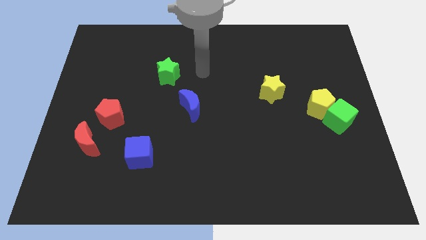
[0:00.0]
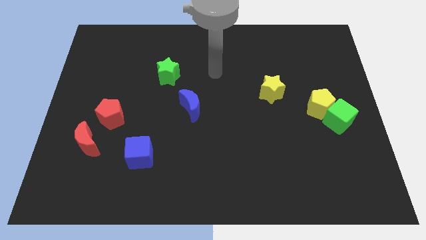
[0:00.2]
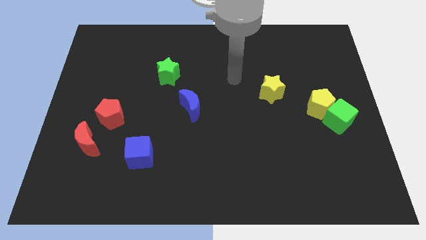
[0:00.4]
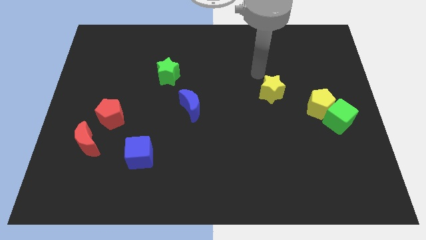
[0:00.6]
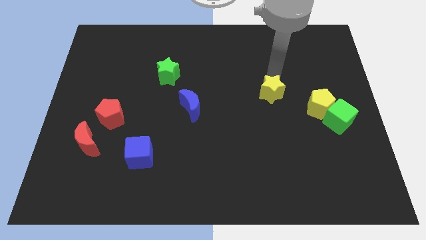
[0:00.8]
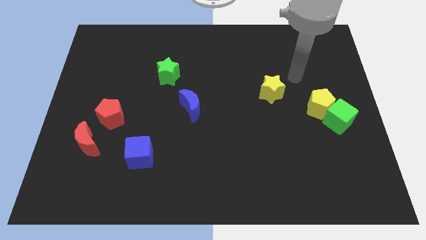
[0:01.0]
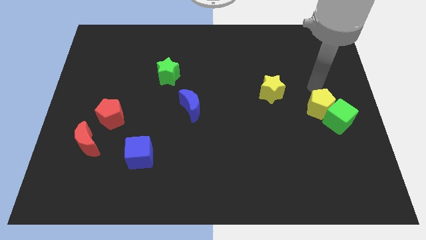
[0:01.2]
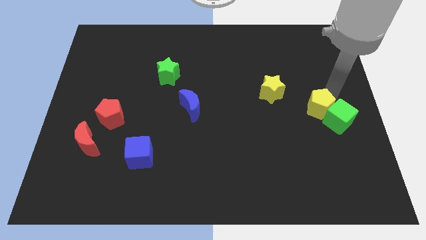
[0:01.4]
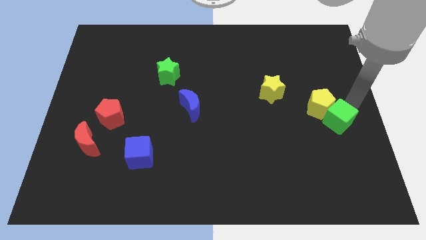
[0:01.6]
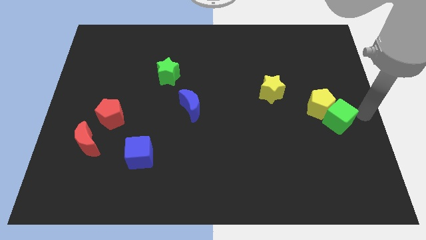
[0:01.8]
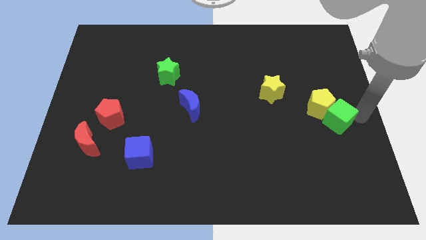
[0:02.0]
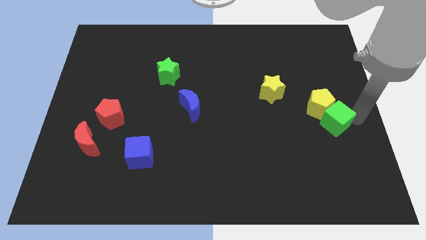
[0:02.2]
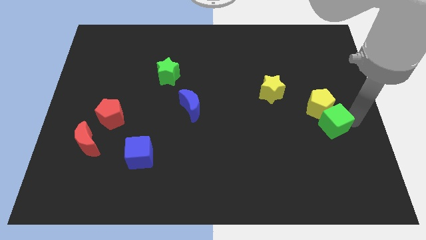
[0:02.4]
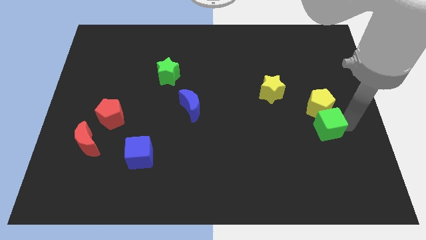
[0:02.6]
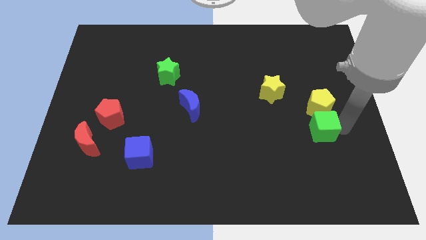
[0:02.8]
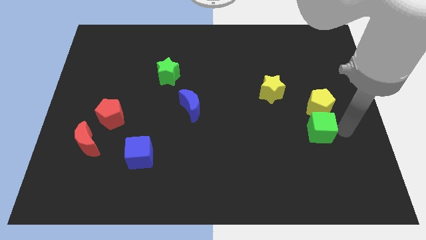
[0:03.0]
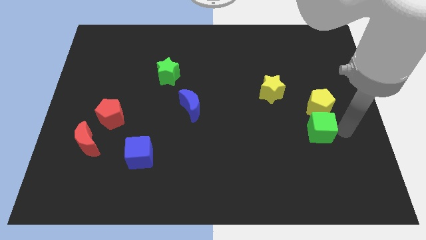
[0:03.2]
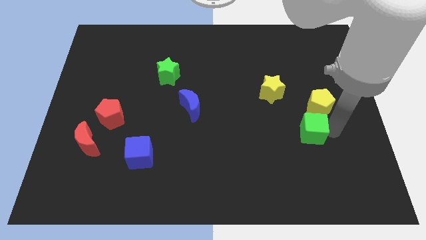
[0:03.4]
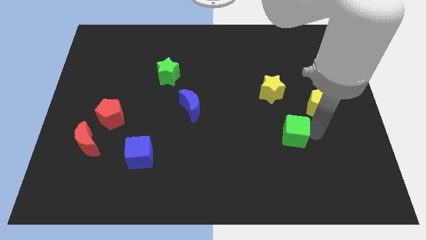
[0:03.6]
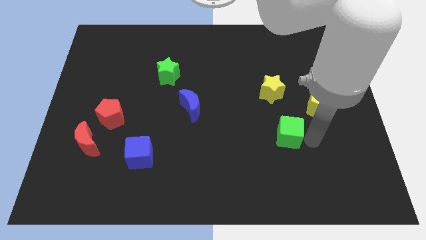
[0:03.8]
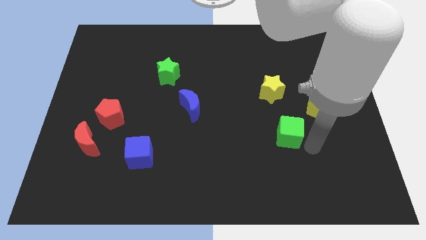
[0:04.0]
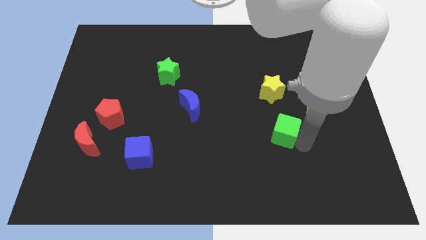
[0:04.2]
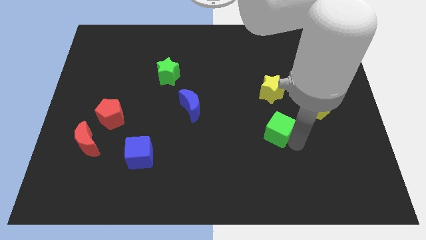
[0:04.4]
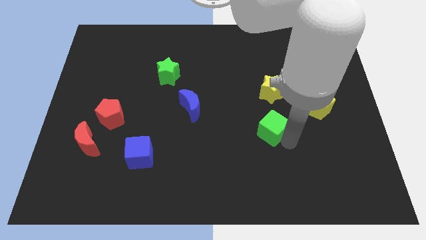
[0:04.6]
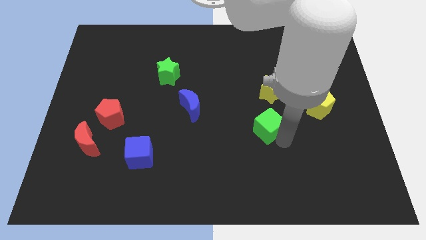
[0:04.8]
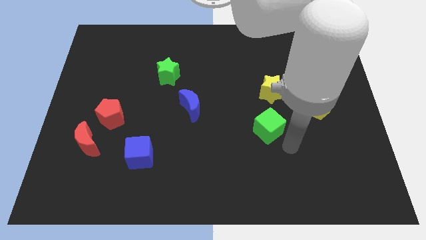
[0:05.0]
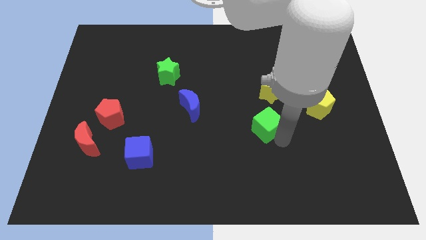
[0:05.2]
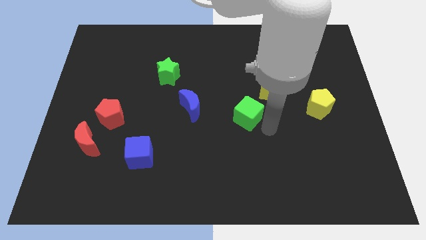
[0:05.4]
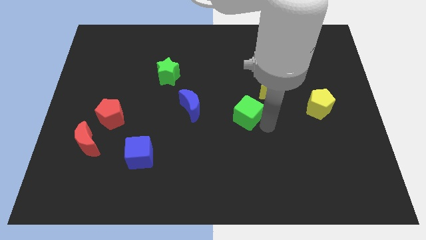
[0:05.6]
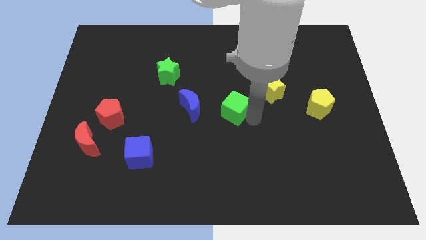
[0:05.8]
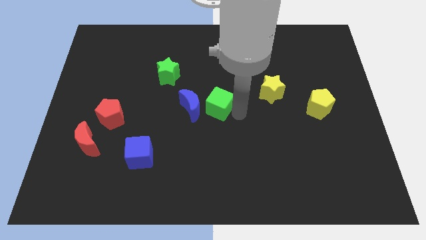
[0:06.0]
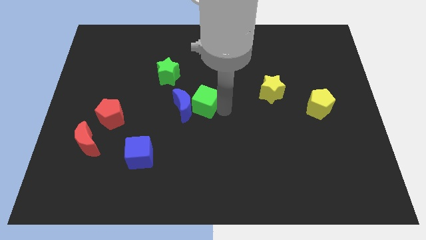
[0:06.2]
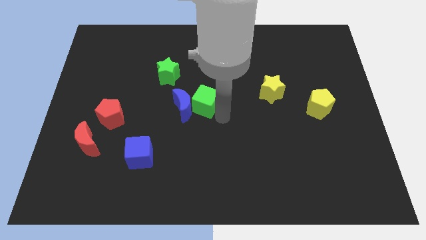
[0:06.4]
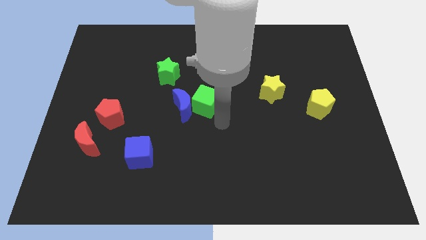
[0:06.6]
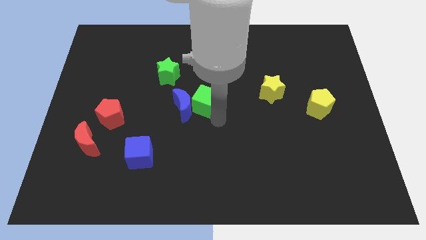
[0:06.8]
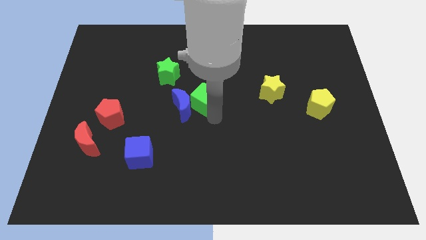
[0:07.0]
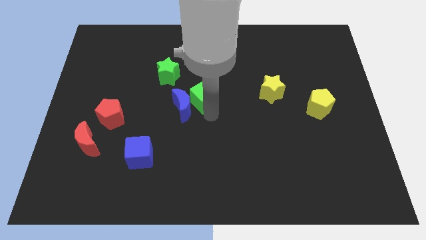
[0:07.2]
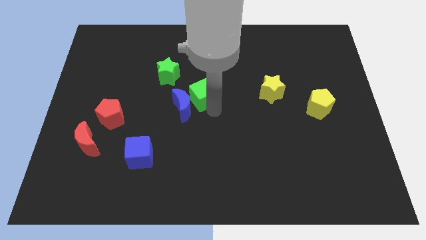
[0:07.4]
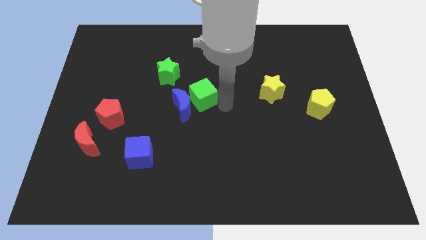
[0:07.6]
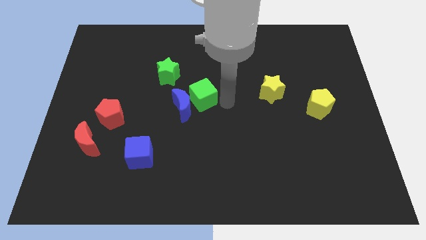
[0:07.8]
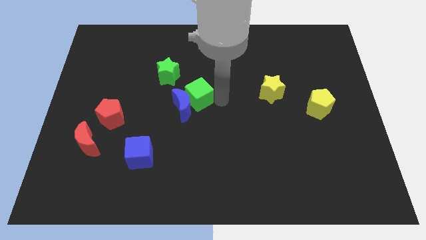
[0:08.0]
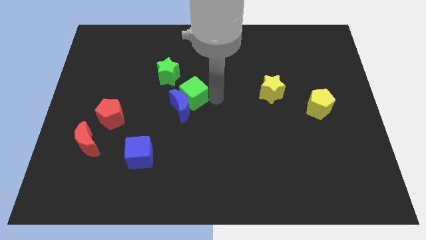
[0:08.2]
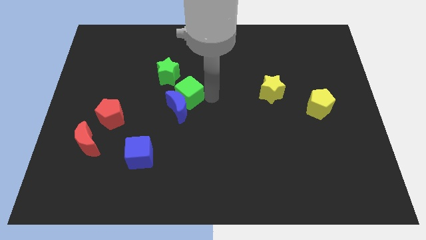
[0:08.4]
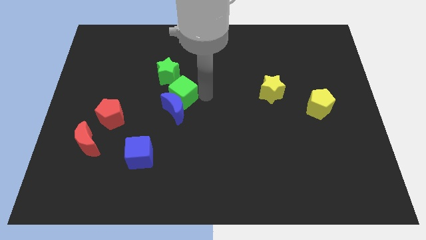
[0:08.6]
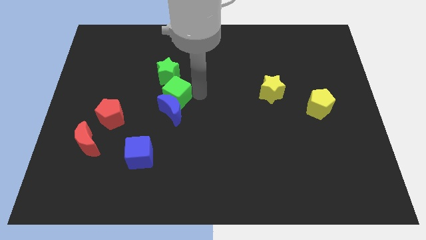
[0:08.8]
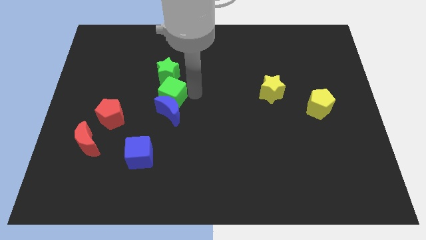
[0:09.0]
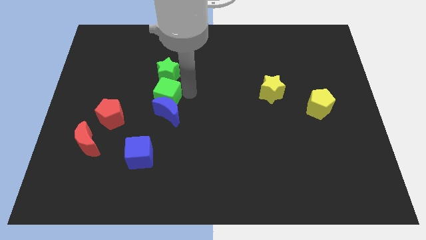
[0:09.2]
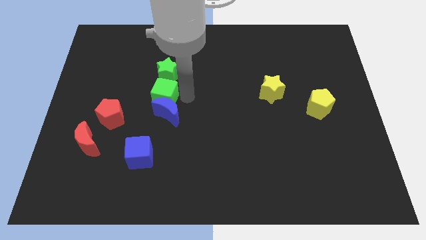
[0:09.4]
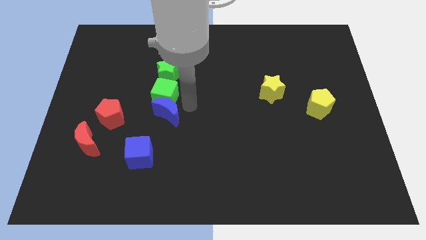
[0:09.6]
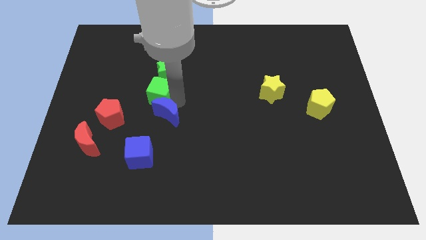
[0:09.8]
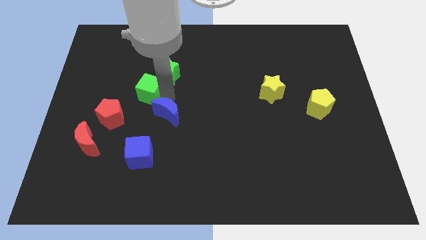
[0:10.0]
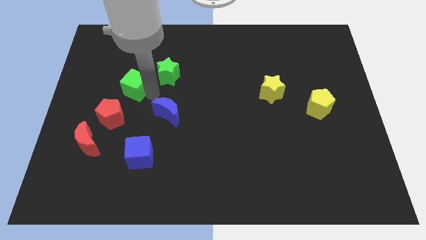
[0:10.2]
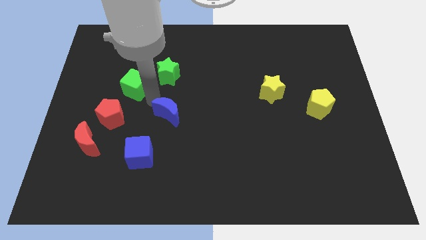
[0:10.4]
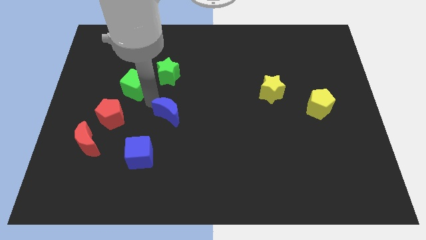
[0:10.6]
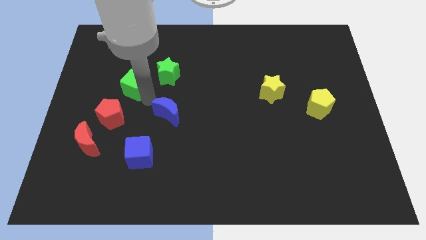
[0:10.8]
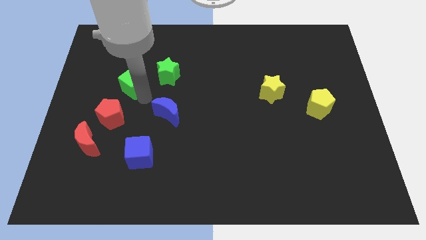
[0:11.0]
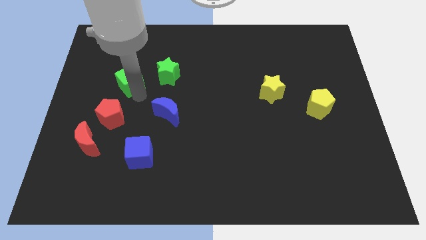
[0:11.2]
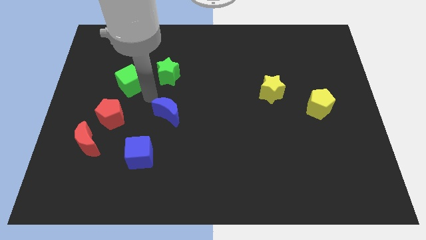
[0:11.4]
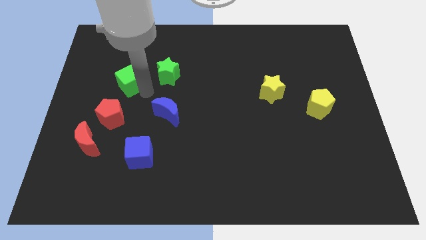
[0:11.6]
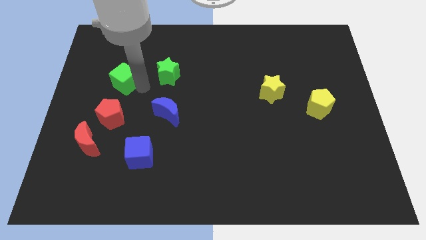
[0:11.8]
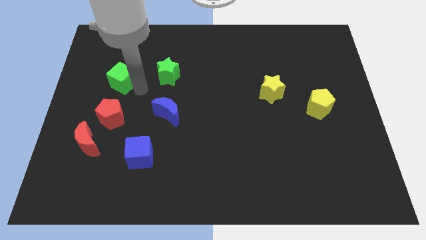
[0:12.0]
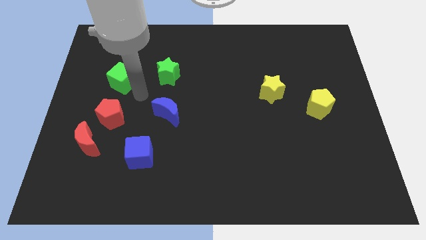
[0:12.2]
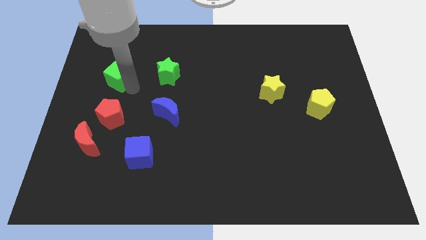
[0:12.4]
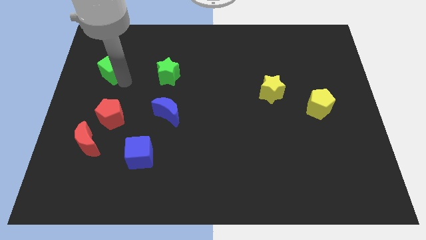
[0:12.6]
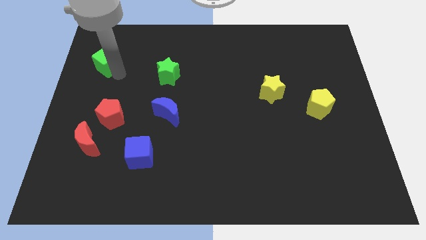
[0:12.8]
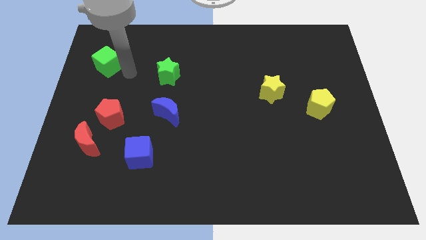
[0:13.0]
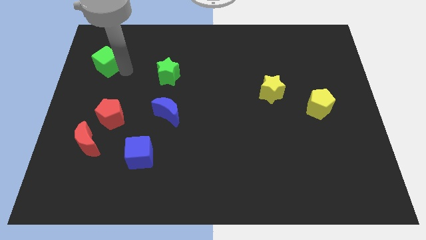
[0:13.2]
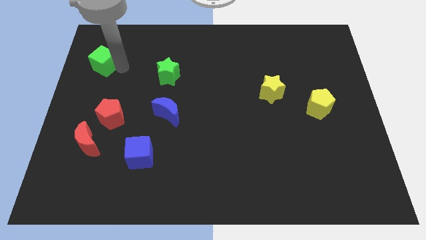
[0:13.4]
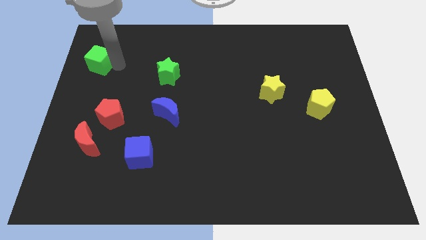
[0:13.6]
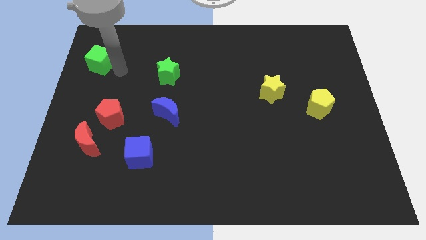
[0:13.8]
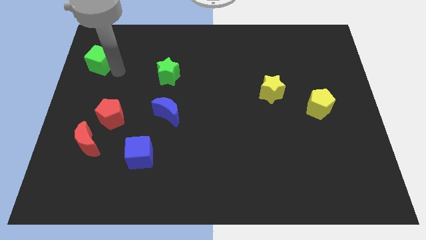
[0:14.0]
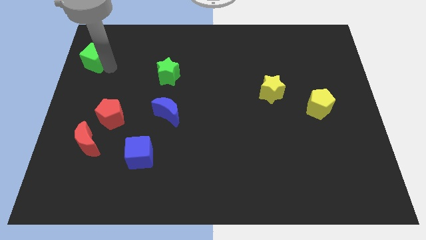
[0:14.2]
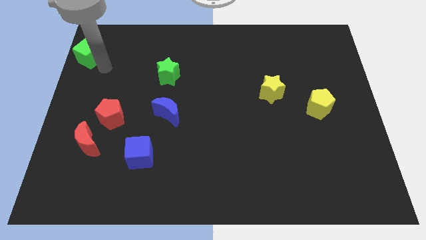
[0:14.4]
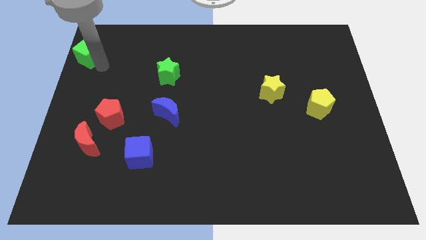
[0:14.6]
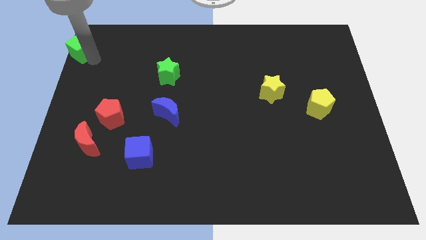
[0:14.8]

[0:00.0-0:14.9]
move the green cube to the top left of the board
